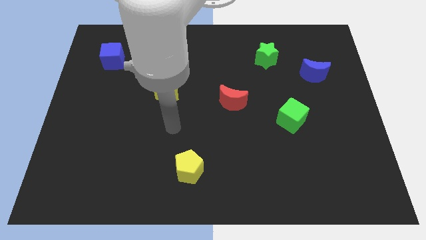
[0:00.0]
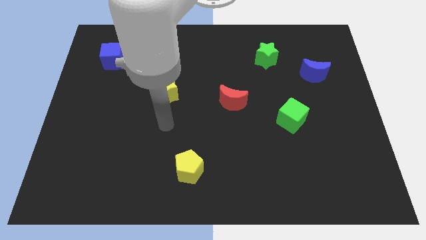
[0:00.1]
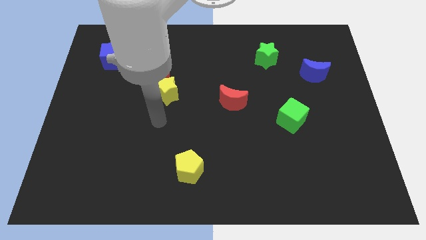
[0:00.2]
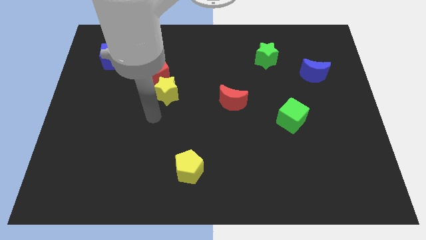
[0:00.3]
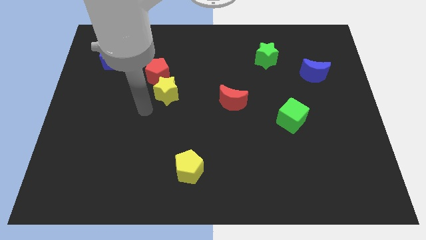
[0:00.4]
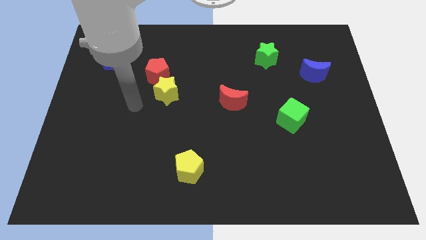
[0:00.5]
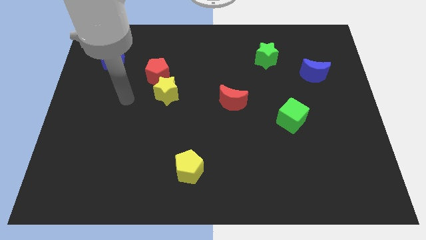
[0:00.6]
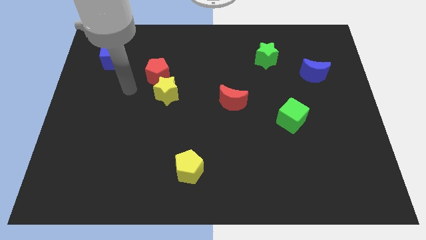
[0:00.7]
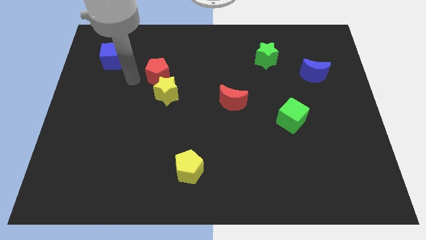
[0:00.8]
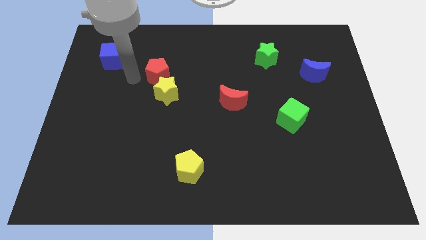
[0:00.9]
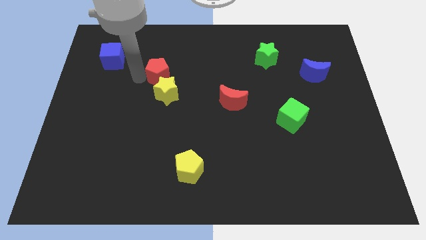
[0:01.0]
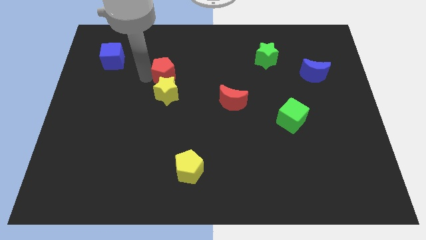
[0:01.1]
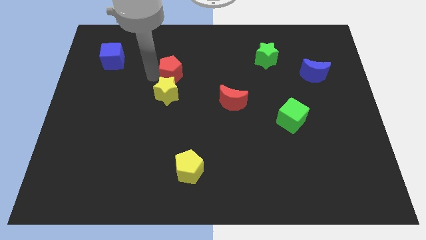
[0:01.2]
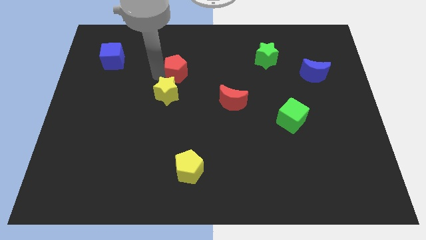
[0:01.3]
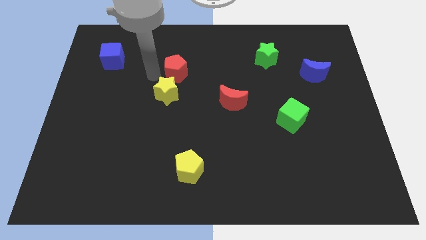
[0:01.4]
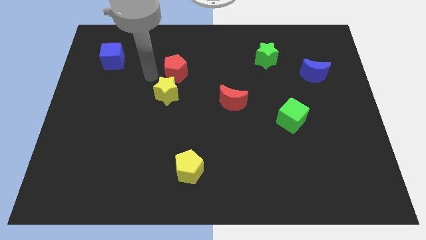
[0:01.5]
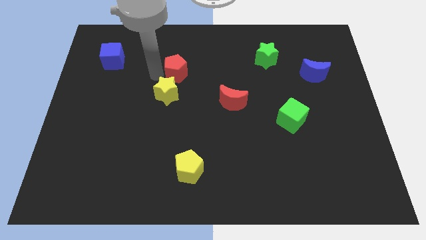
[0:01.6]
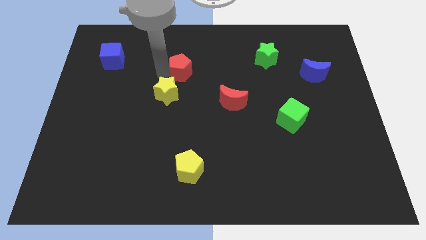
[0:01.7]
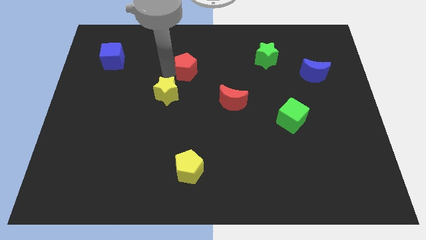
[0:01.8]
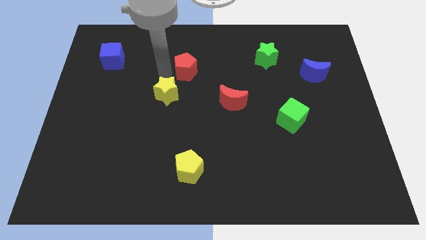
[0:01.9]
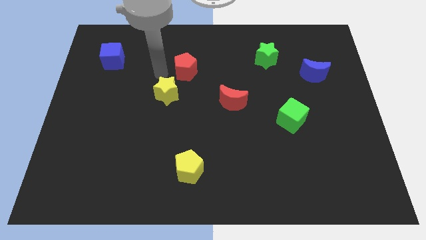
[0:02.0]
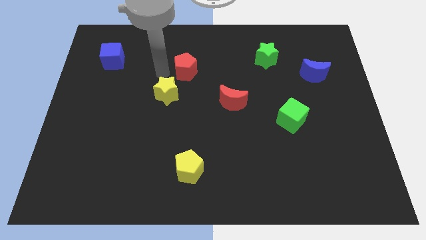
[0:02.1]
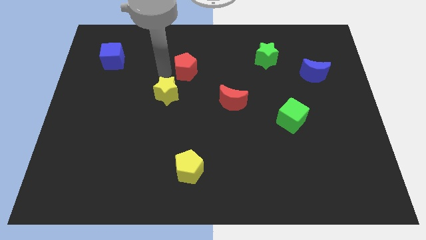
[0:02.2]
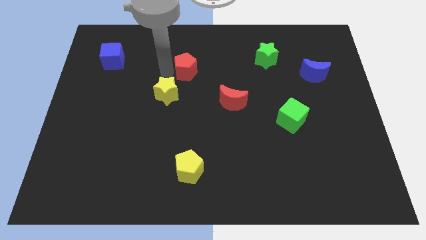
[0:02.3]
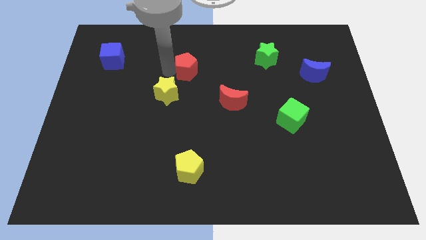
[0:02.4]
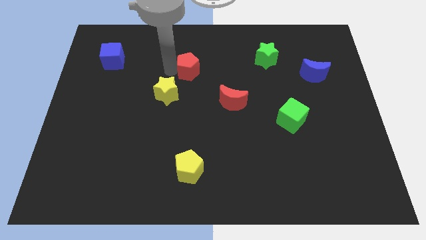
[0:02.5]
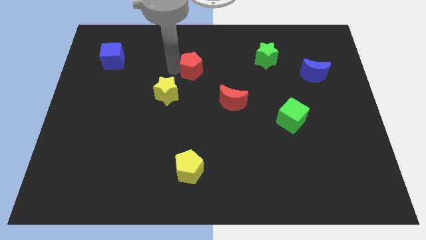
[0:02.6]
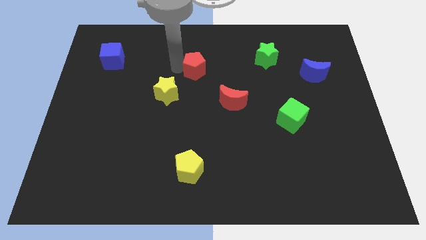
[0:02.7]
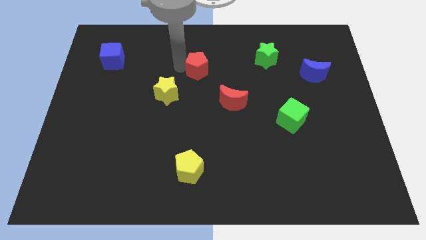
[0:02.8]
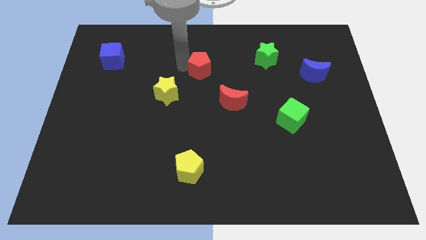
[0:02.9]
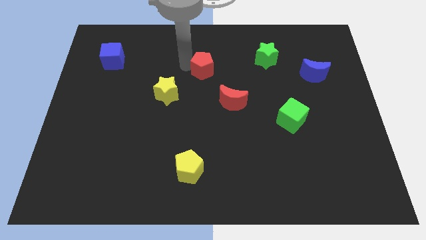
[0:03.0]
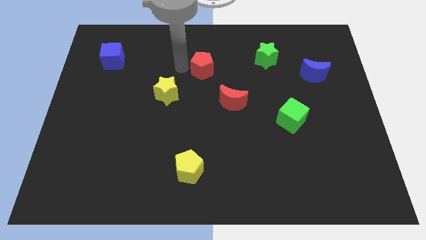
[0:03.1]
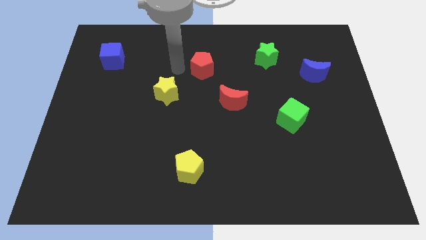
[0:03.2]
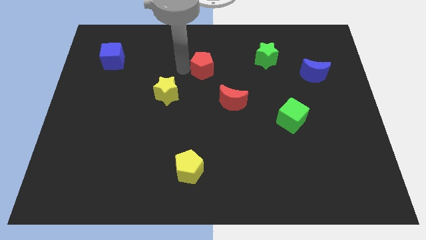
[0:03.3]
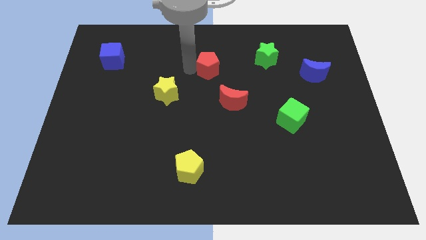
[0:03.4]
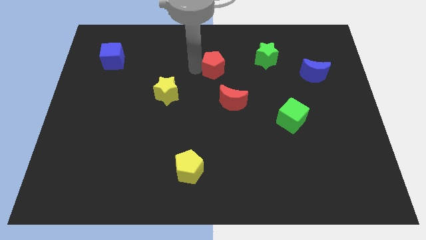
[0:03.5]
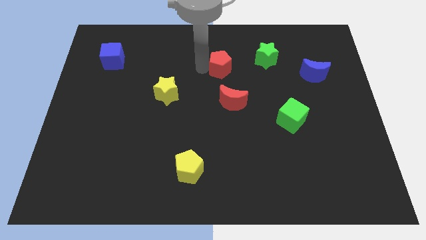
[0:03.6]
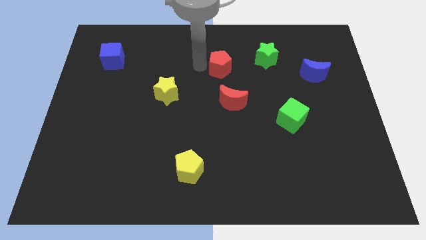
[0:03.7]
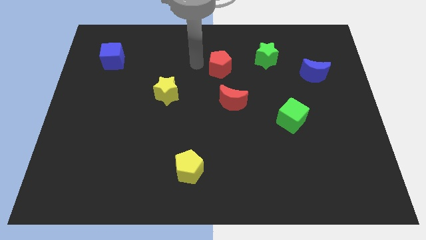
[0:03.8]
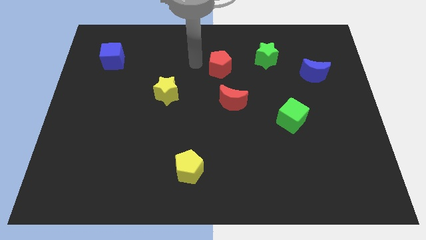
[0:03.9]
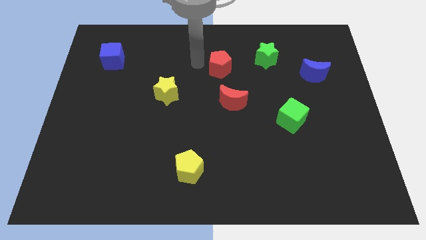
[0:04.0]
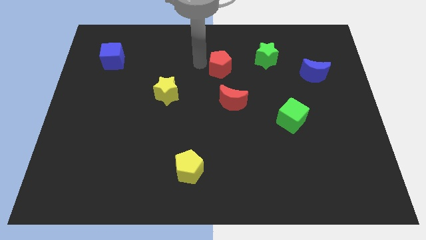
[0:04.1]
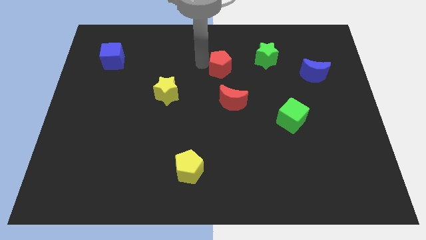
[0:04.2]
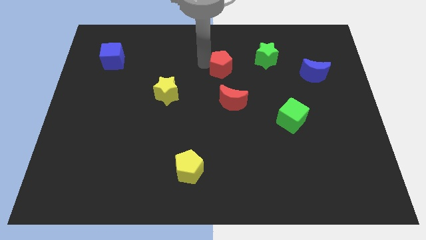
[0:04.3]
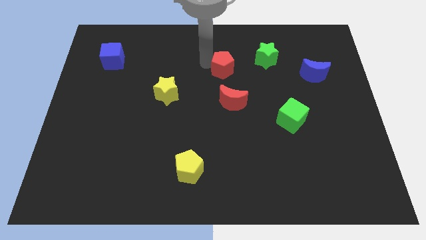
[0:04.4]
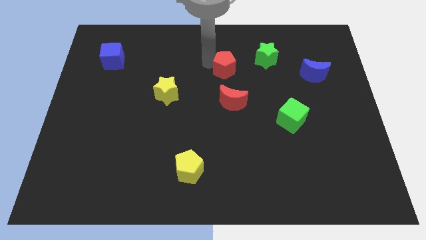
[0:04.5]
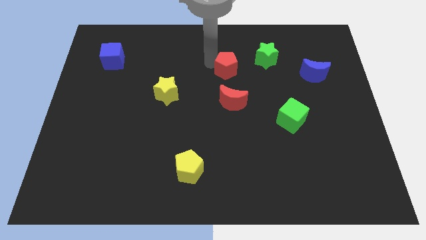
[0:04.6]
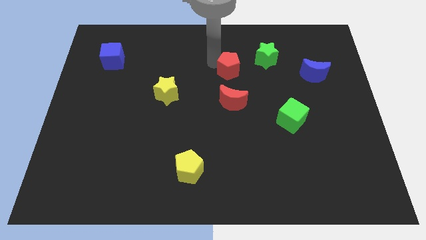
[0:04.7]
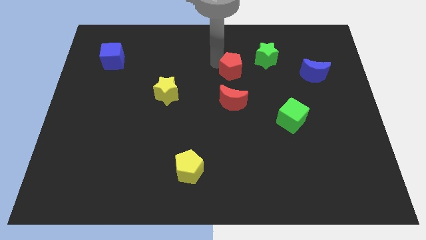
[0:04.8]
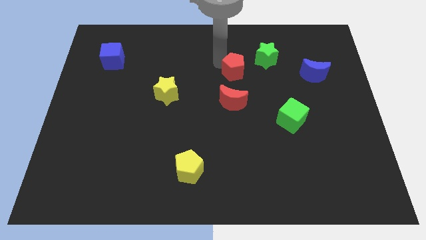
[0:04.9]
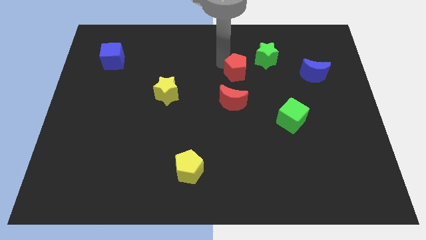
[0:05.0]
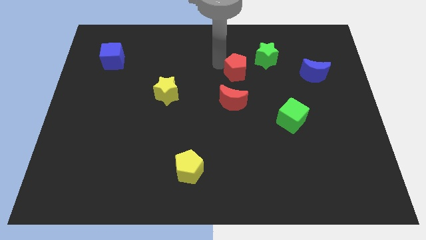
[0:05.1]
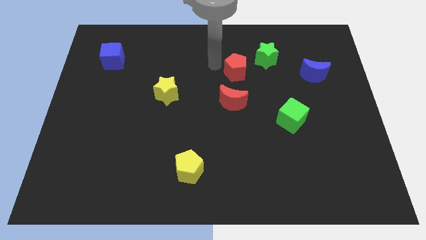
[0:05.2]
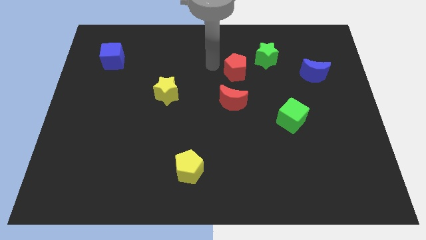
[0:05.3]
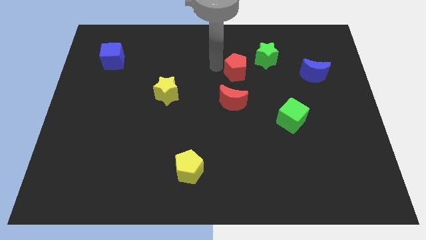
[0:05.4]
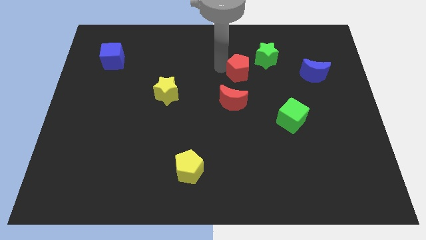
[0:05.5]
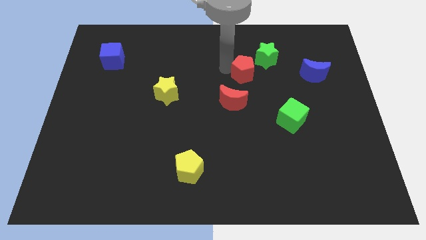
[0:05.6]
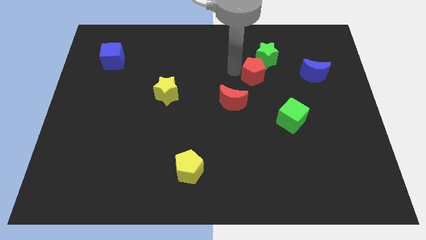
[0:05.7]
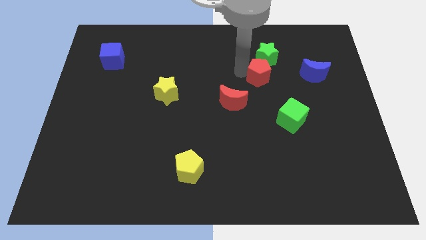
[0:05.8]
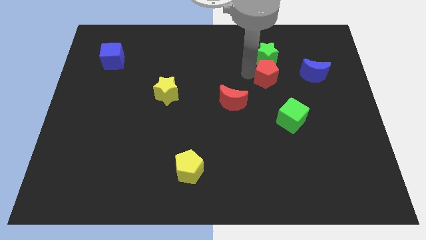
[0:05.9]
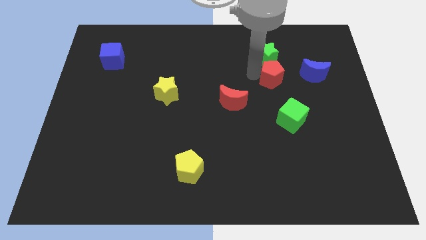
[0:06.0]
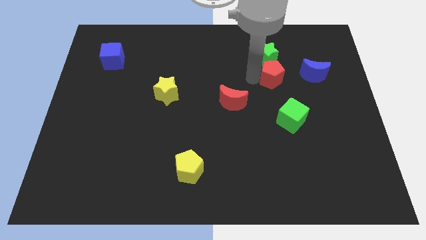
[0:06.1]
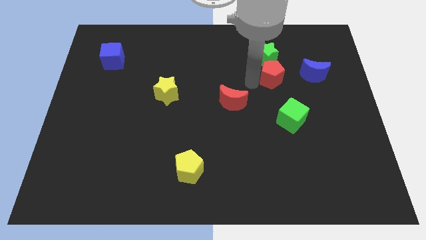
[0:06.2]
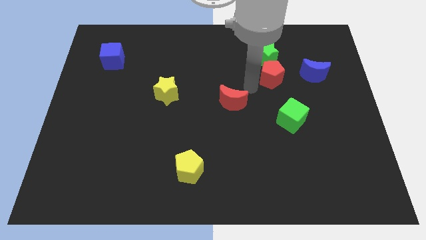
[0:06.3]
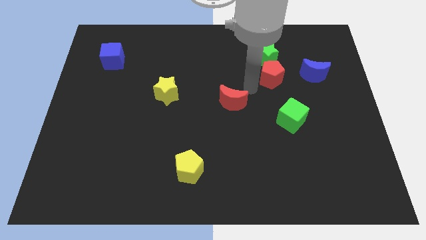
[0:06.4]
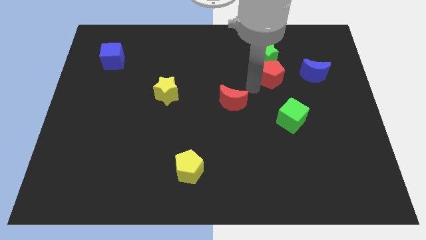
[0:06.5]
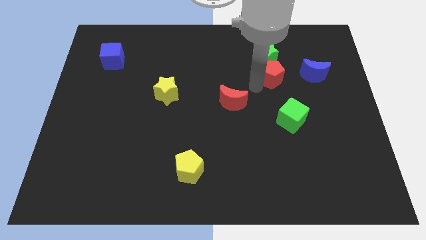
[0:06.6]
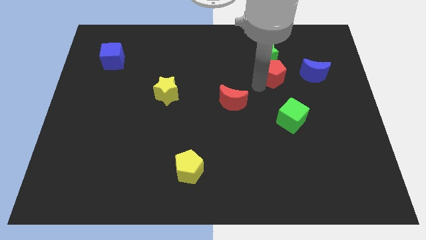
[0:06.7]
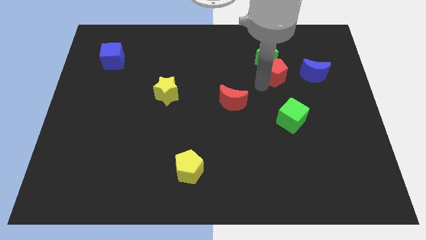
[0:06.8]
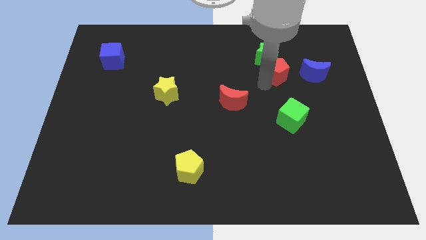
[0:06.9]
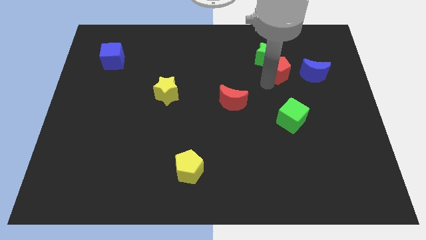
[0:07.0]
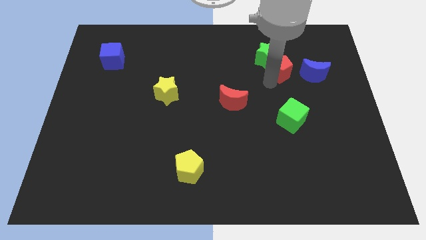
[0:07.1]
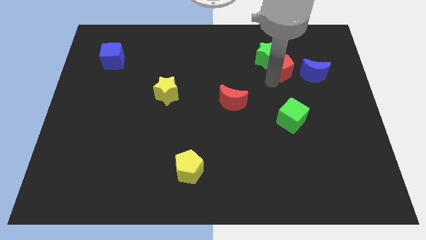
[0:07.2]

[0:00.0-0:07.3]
move the red pentagon just right of the green star

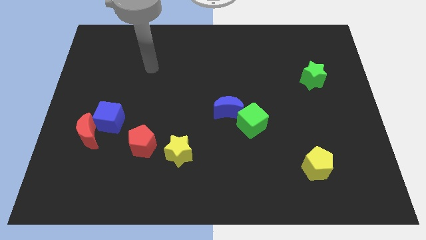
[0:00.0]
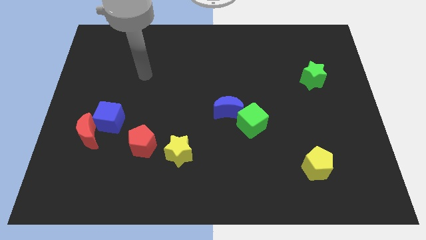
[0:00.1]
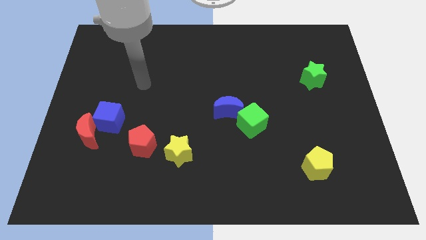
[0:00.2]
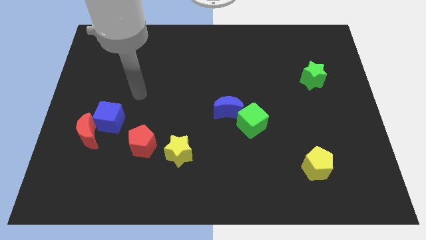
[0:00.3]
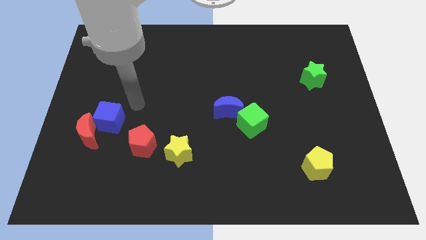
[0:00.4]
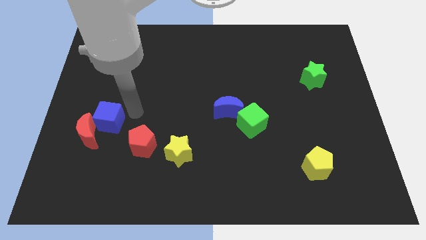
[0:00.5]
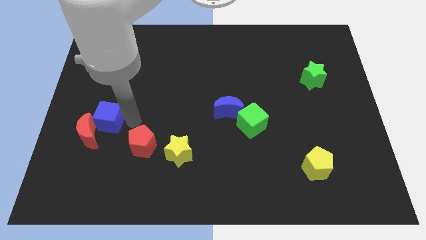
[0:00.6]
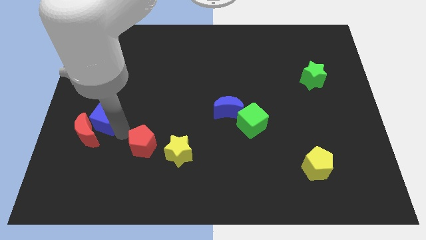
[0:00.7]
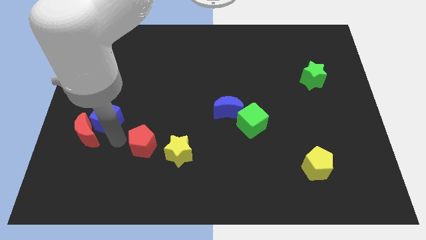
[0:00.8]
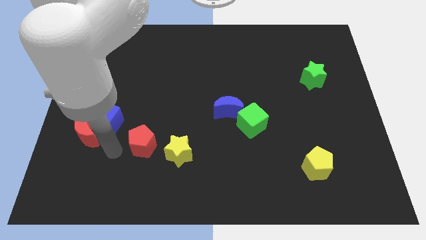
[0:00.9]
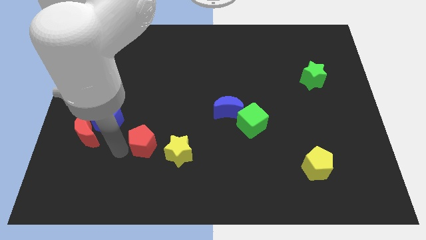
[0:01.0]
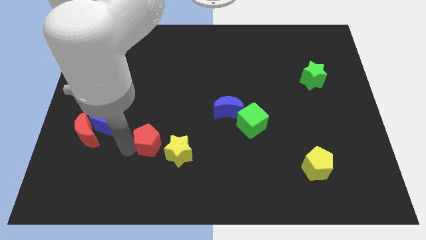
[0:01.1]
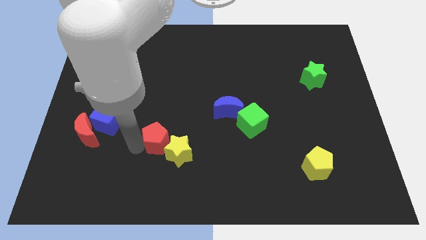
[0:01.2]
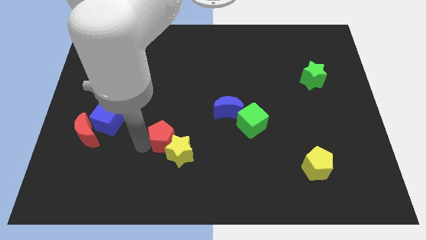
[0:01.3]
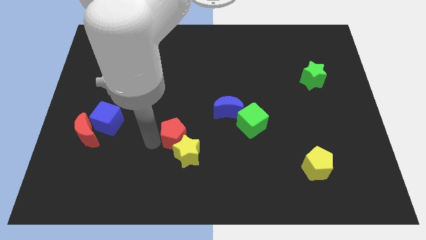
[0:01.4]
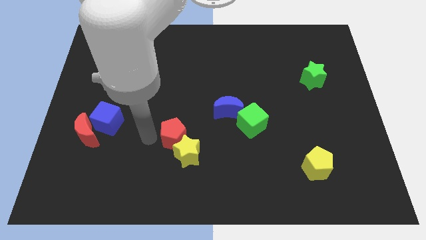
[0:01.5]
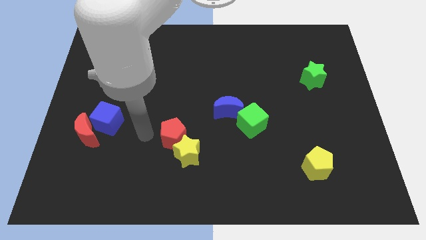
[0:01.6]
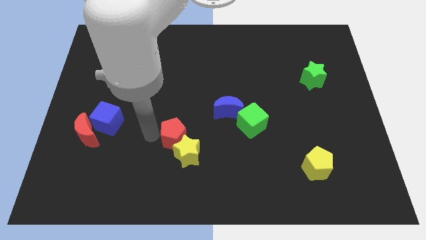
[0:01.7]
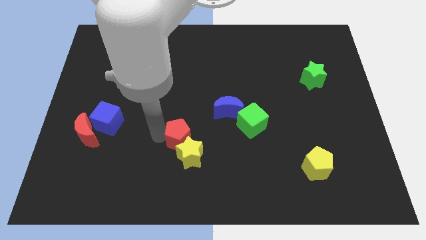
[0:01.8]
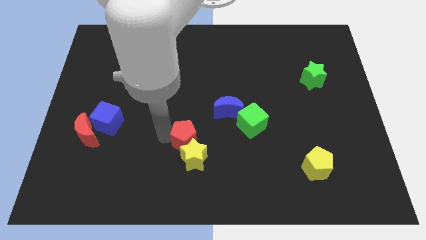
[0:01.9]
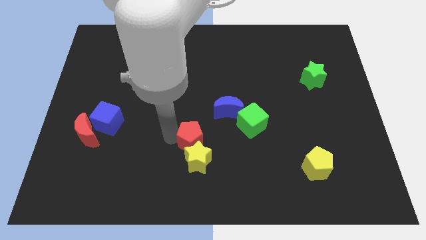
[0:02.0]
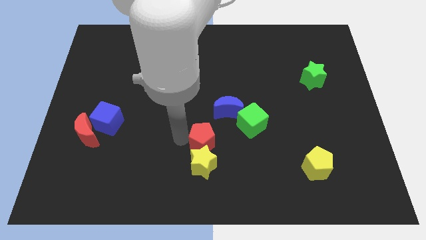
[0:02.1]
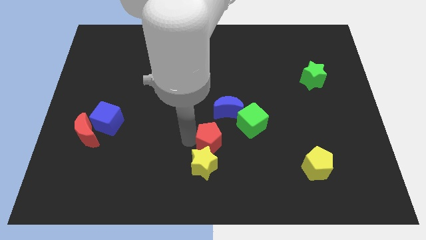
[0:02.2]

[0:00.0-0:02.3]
slide the red pentagon diagonally down and to the left of the green cube
